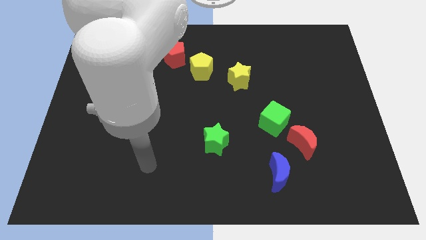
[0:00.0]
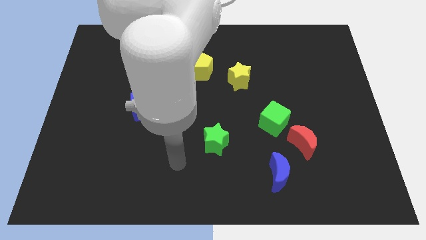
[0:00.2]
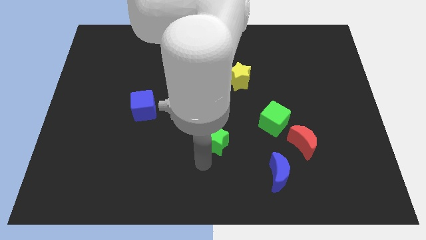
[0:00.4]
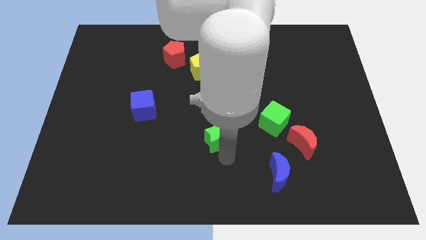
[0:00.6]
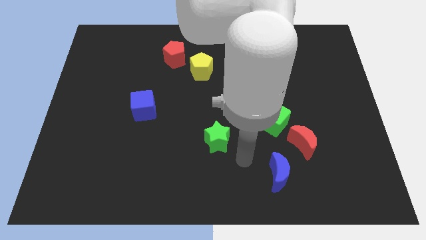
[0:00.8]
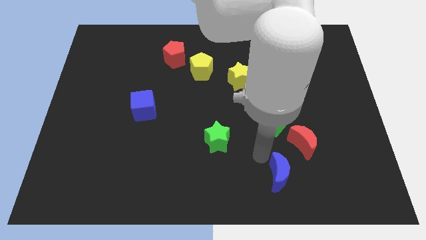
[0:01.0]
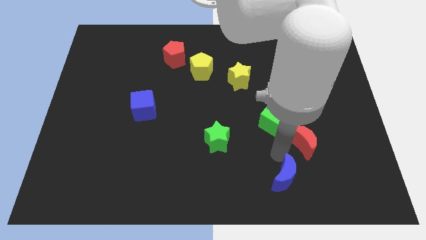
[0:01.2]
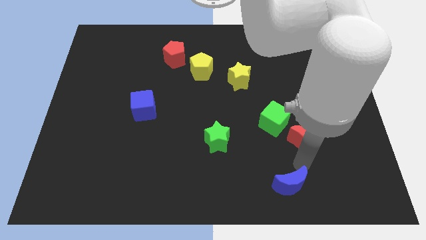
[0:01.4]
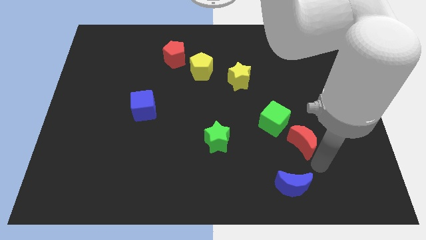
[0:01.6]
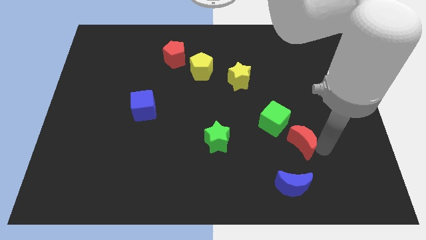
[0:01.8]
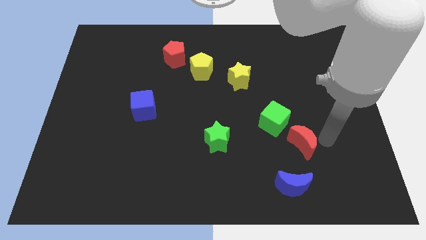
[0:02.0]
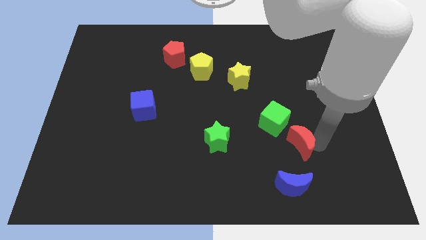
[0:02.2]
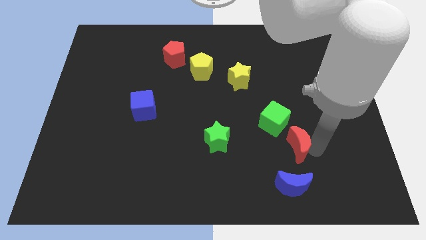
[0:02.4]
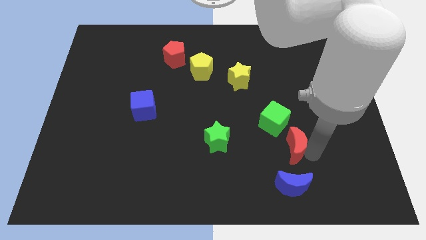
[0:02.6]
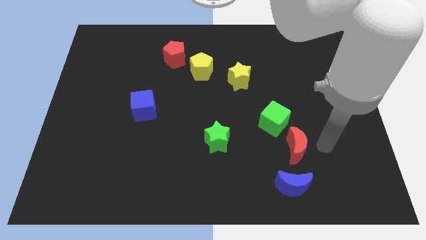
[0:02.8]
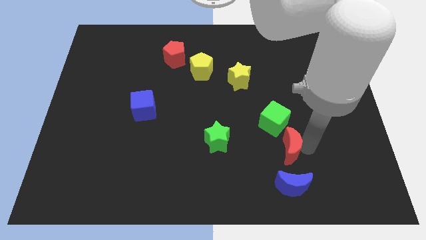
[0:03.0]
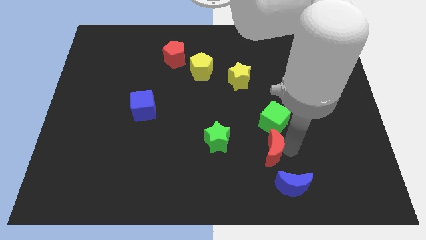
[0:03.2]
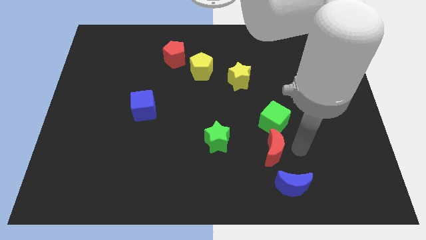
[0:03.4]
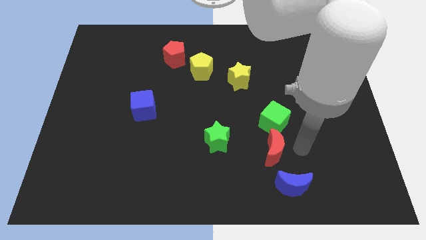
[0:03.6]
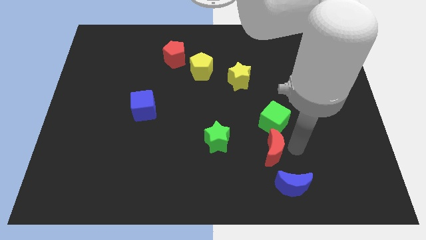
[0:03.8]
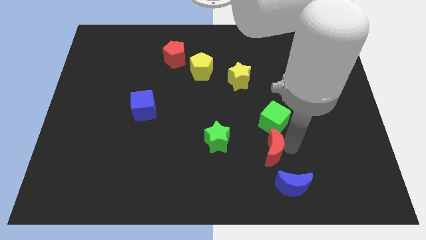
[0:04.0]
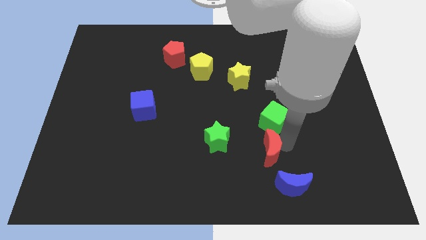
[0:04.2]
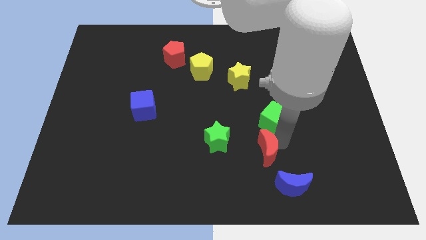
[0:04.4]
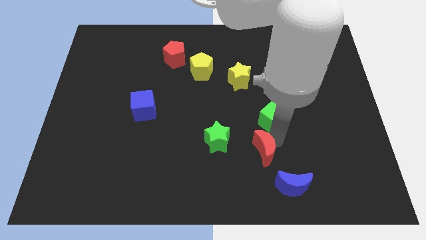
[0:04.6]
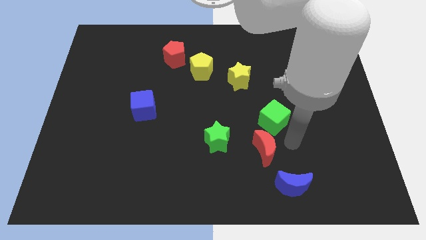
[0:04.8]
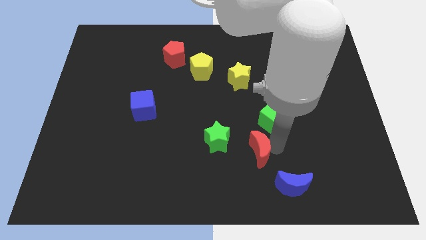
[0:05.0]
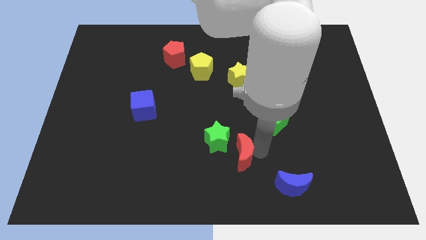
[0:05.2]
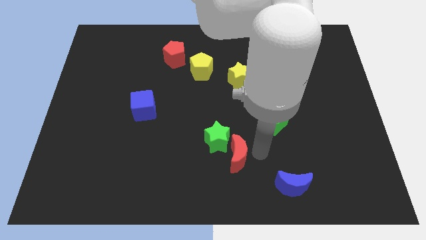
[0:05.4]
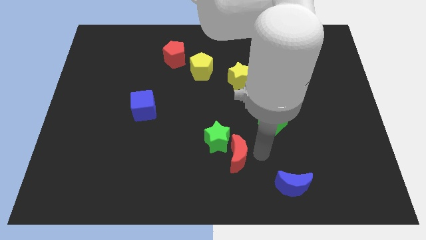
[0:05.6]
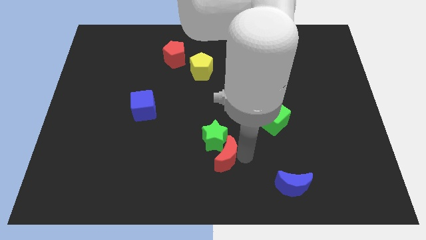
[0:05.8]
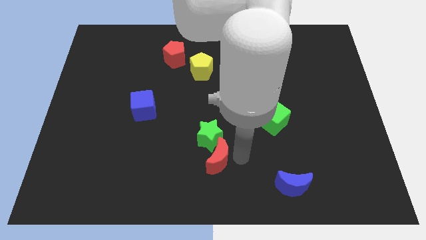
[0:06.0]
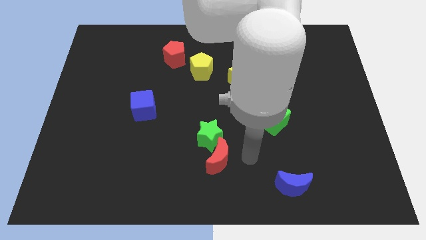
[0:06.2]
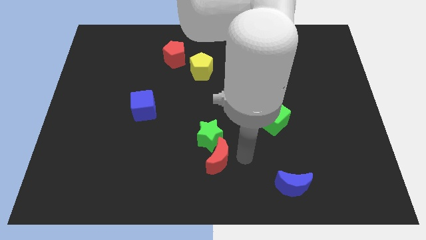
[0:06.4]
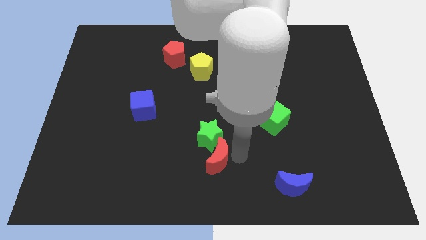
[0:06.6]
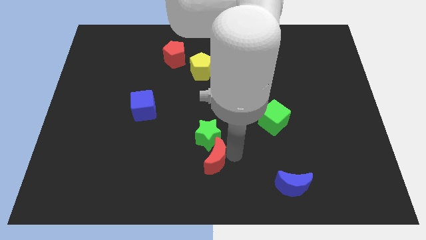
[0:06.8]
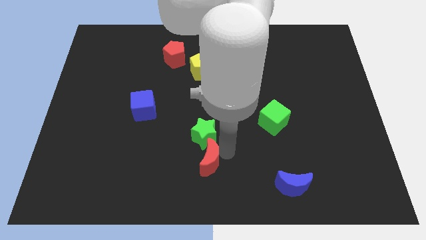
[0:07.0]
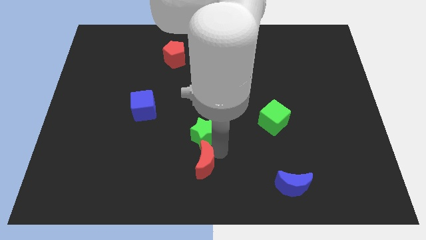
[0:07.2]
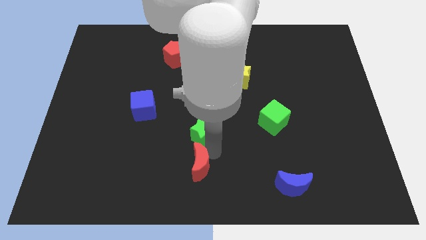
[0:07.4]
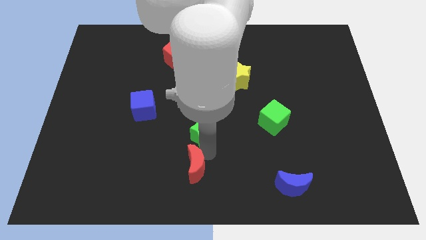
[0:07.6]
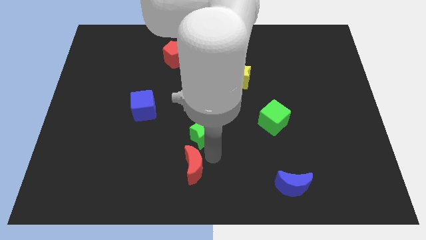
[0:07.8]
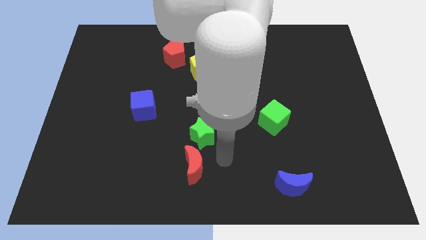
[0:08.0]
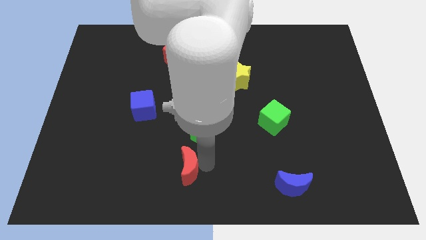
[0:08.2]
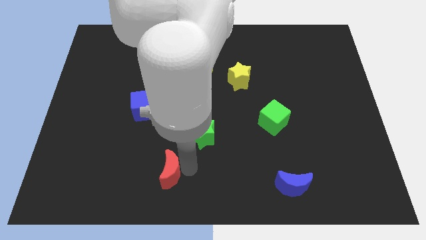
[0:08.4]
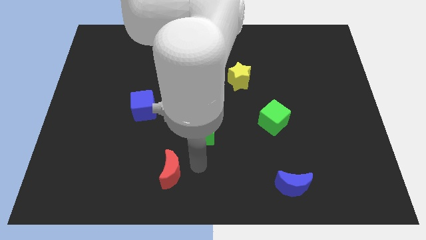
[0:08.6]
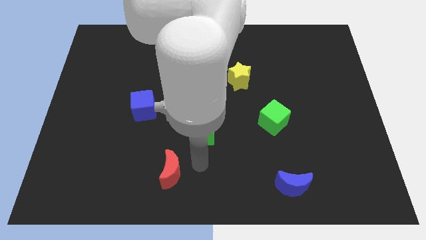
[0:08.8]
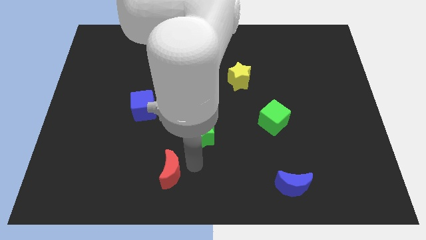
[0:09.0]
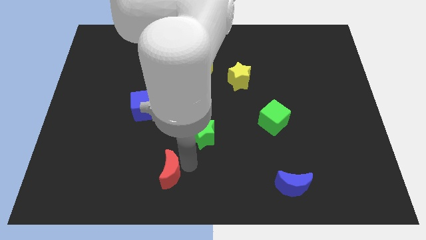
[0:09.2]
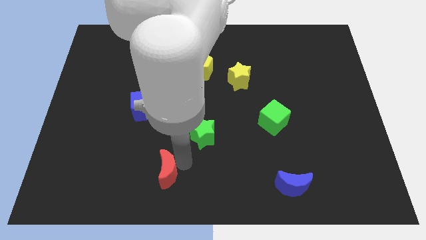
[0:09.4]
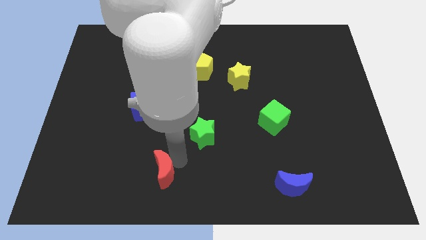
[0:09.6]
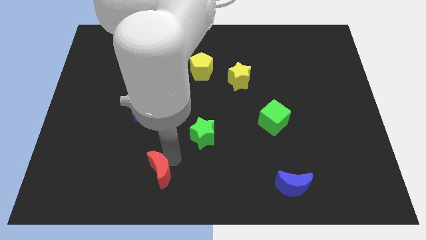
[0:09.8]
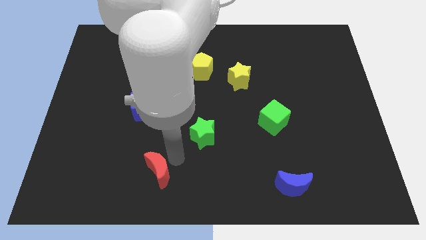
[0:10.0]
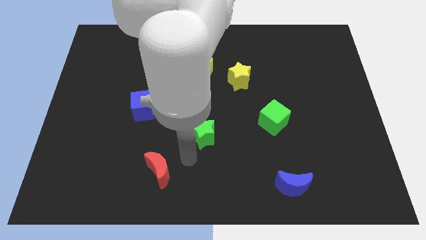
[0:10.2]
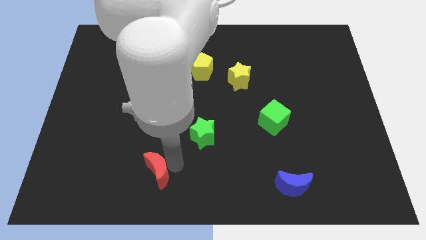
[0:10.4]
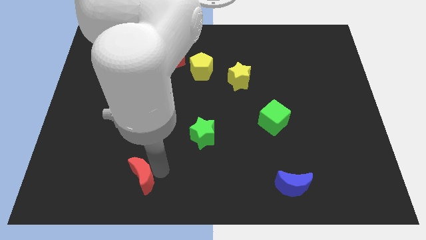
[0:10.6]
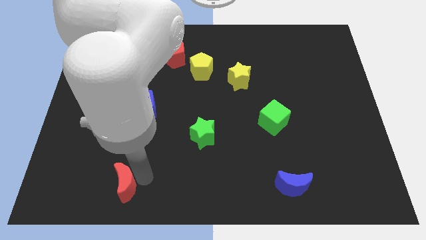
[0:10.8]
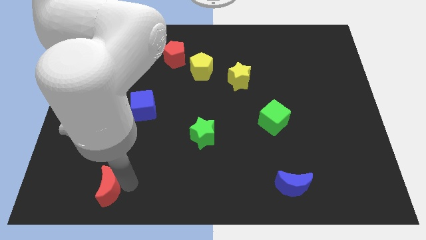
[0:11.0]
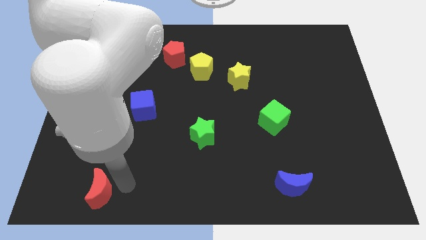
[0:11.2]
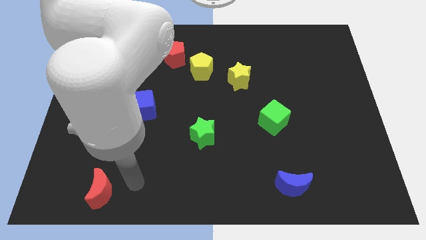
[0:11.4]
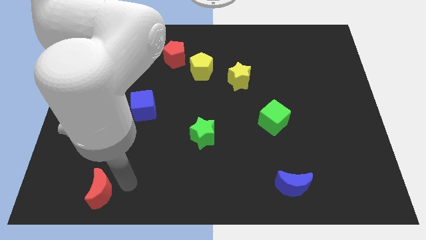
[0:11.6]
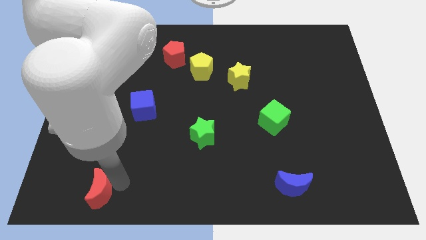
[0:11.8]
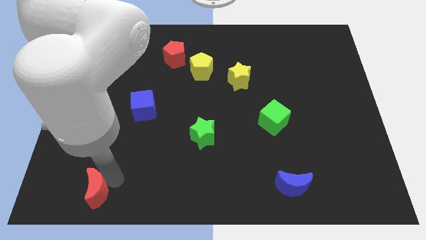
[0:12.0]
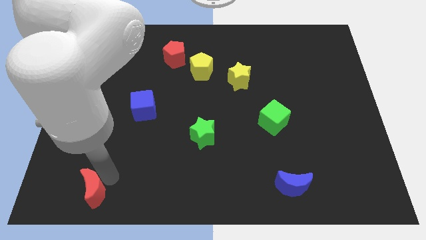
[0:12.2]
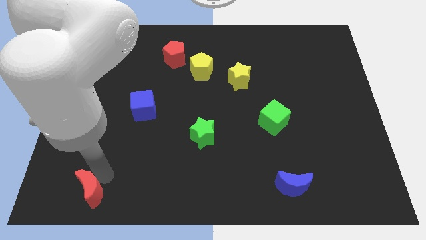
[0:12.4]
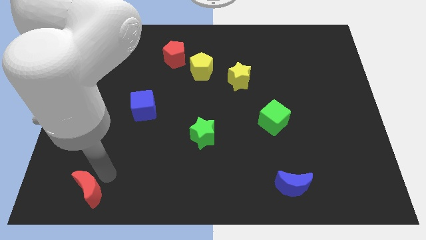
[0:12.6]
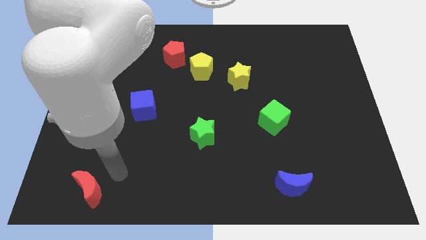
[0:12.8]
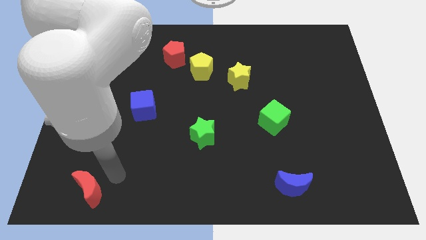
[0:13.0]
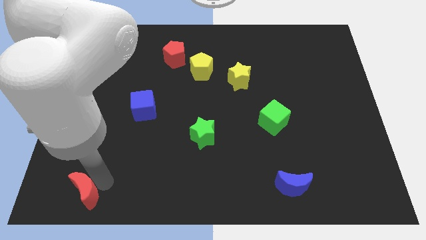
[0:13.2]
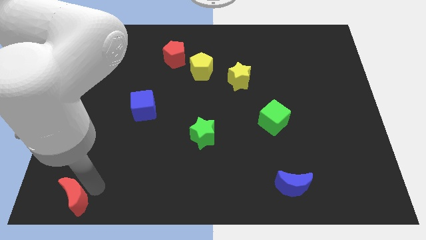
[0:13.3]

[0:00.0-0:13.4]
move the red moon to the bottom left of the board

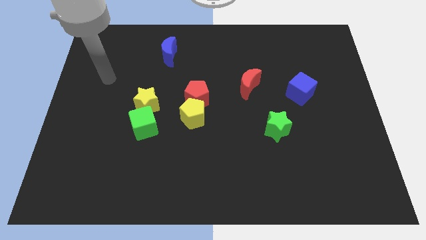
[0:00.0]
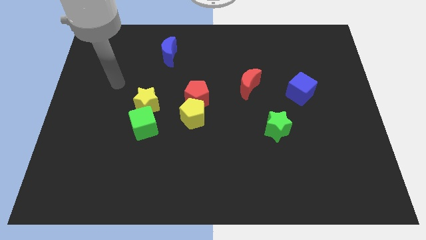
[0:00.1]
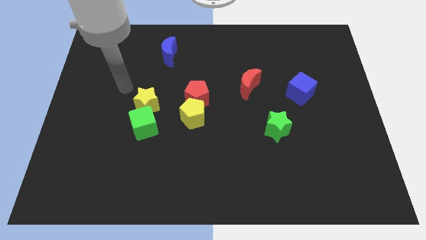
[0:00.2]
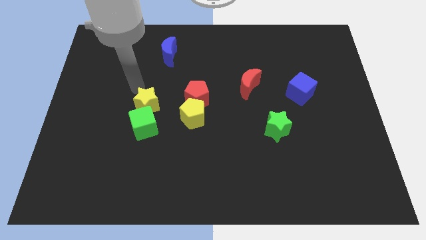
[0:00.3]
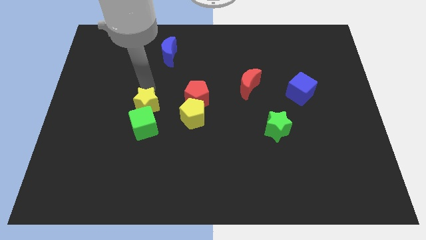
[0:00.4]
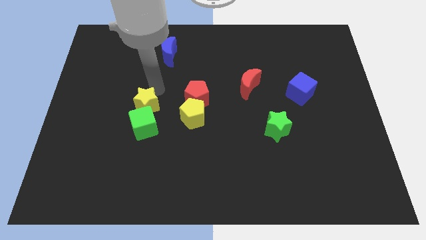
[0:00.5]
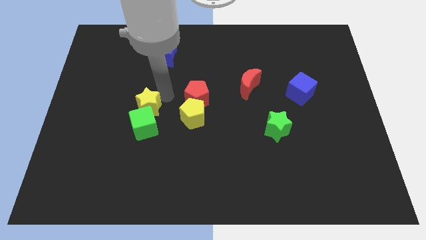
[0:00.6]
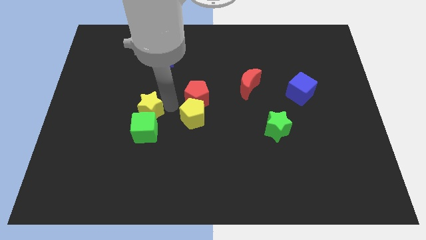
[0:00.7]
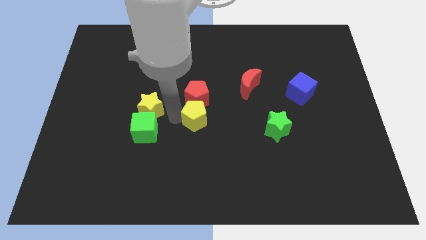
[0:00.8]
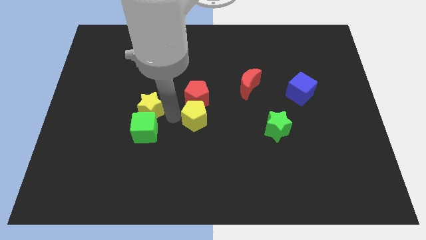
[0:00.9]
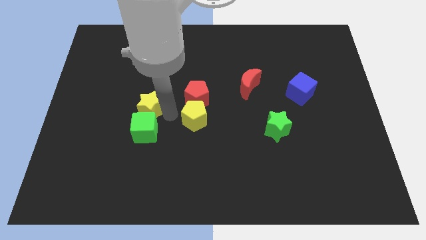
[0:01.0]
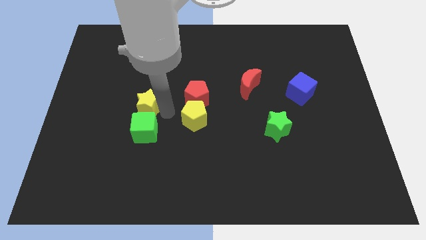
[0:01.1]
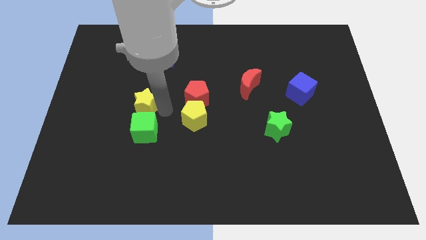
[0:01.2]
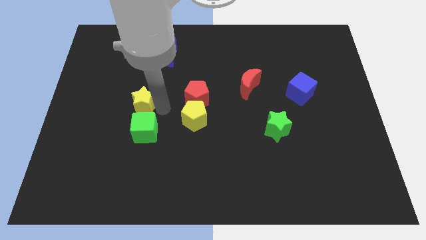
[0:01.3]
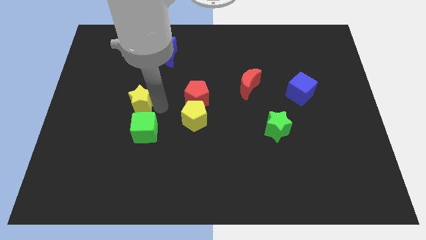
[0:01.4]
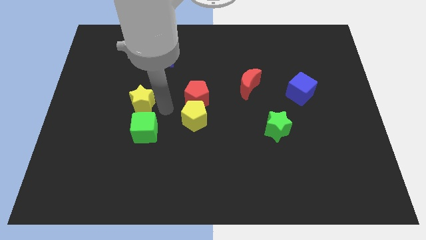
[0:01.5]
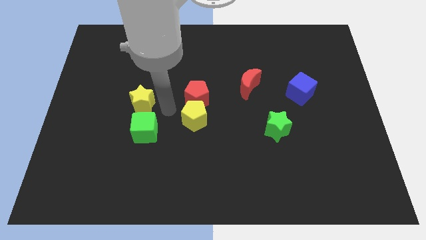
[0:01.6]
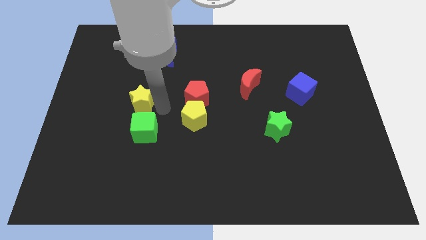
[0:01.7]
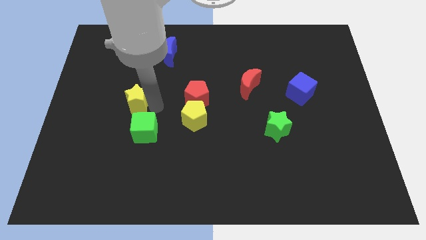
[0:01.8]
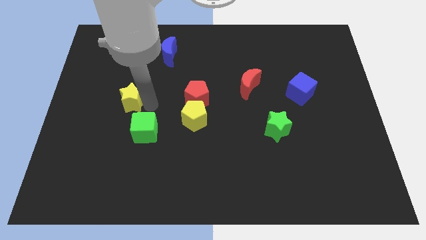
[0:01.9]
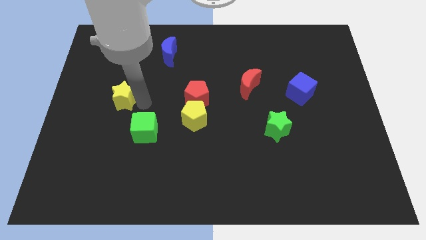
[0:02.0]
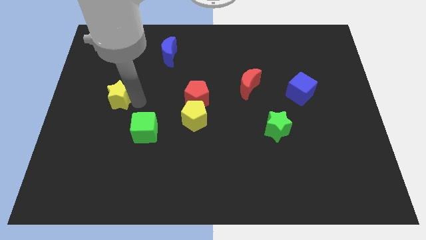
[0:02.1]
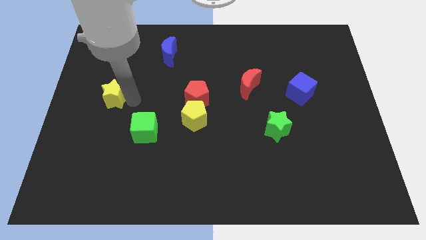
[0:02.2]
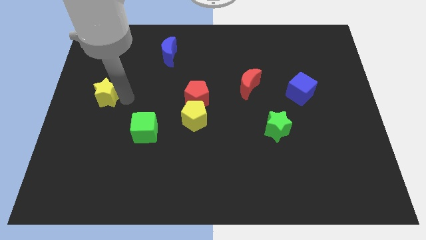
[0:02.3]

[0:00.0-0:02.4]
move the yellow star to the left side of the board
